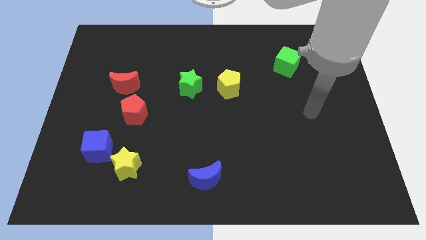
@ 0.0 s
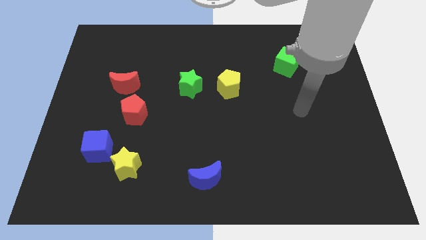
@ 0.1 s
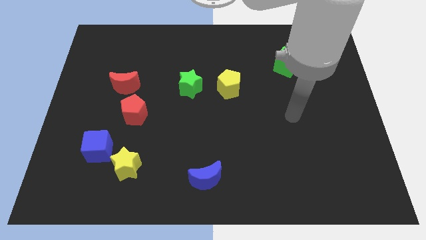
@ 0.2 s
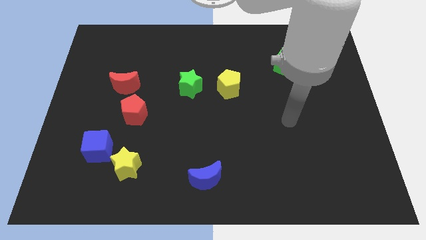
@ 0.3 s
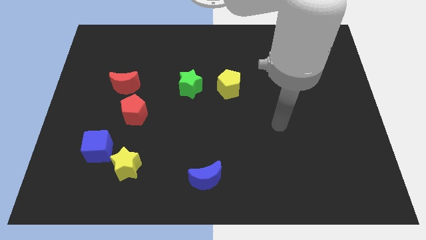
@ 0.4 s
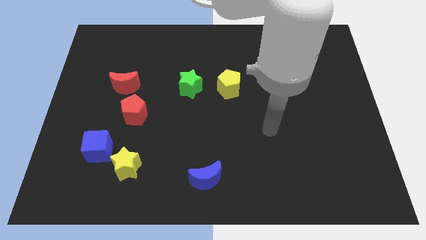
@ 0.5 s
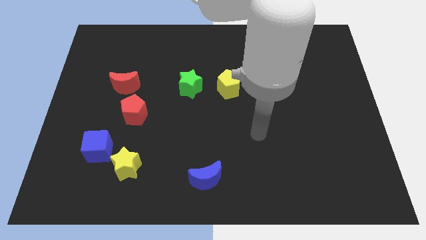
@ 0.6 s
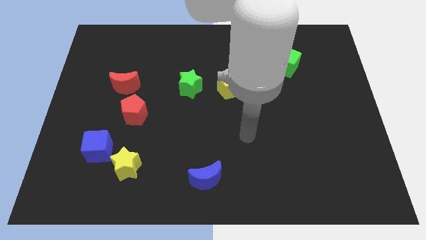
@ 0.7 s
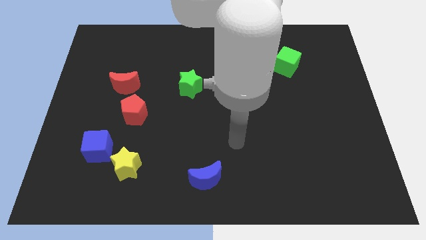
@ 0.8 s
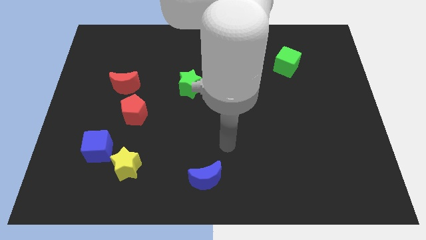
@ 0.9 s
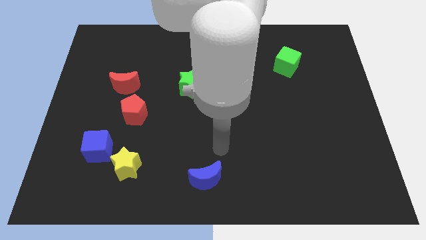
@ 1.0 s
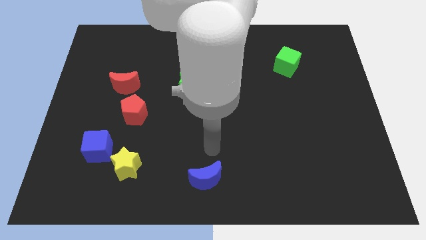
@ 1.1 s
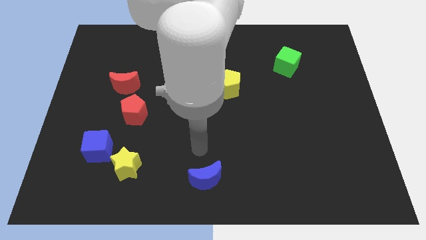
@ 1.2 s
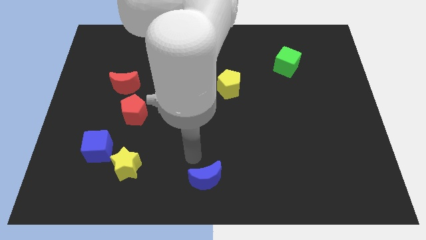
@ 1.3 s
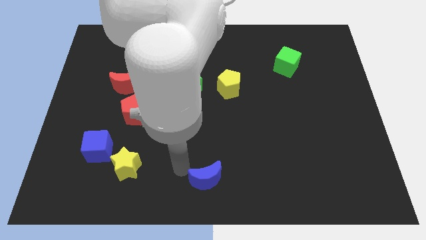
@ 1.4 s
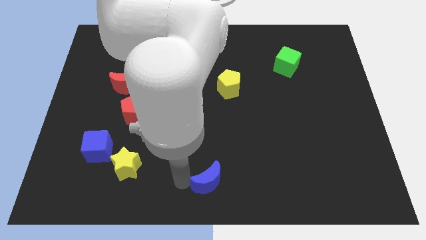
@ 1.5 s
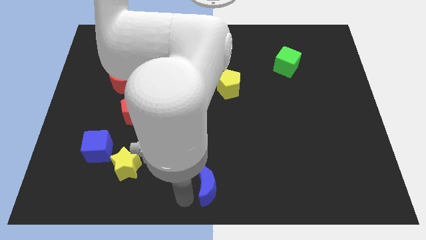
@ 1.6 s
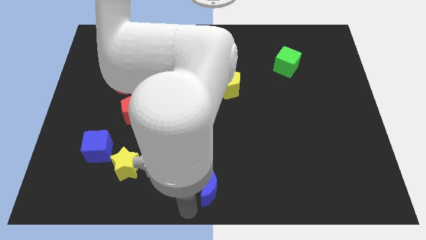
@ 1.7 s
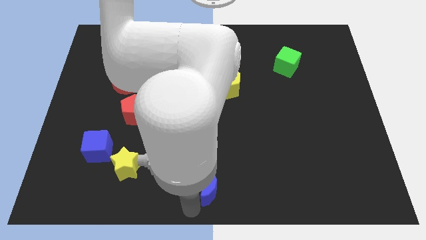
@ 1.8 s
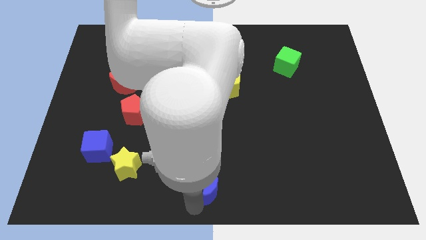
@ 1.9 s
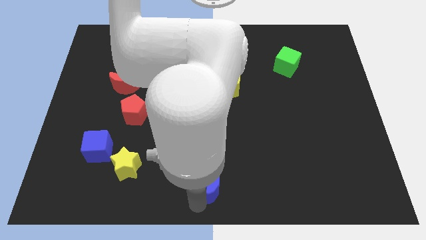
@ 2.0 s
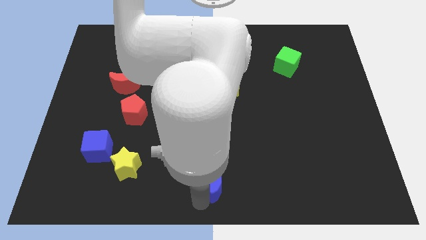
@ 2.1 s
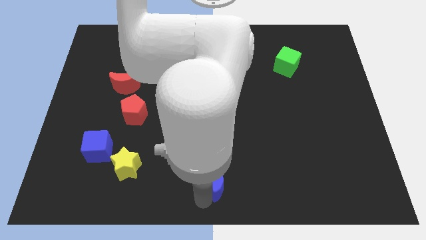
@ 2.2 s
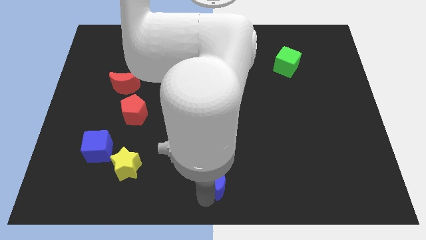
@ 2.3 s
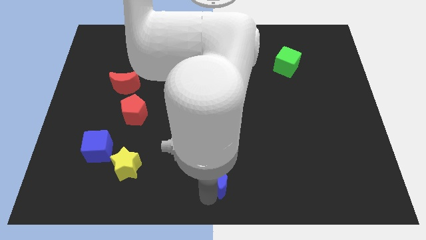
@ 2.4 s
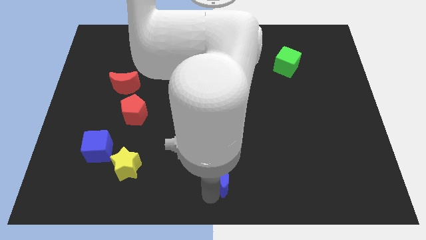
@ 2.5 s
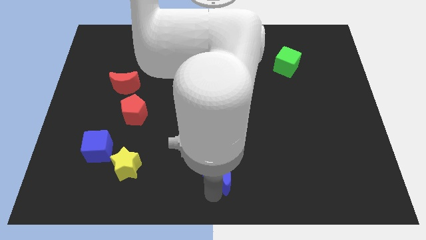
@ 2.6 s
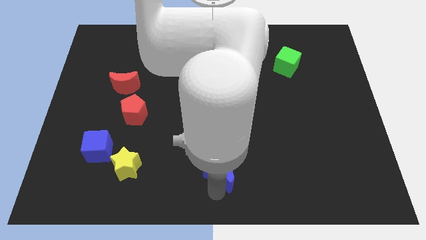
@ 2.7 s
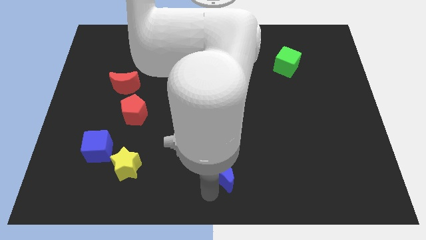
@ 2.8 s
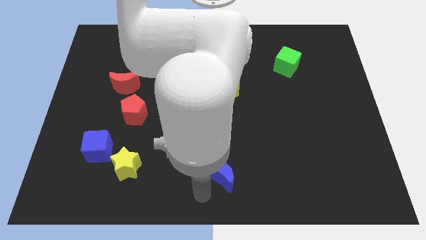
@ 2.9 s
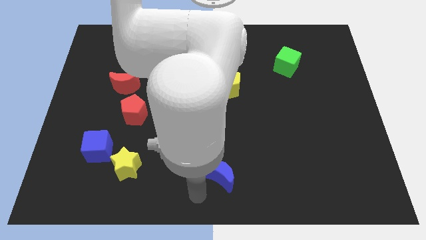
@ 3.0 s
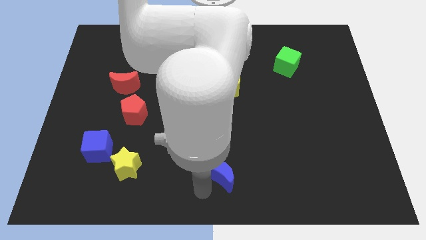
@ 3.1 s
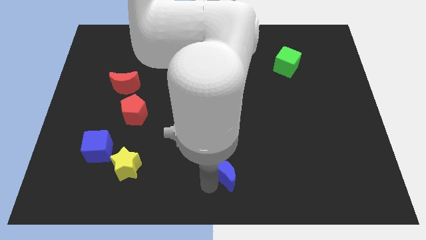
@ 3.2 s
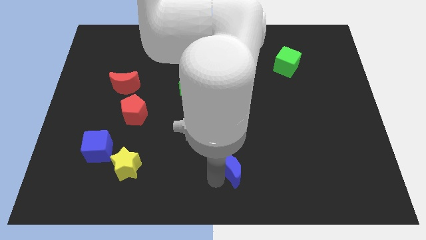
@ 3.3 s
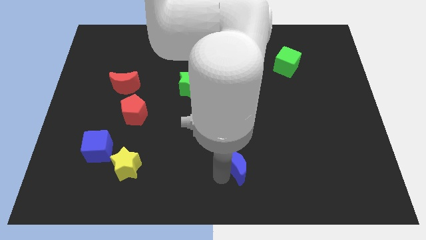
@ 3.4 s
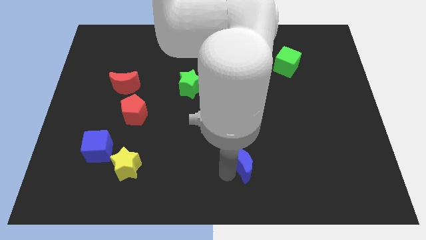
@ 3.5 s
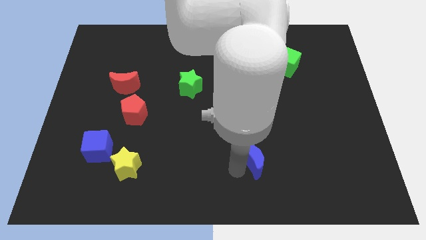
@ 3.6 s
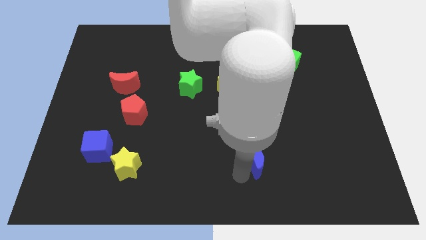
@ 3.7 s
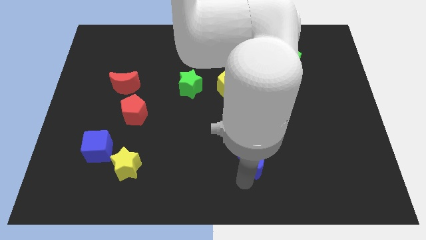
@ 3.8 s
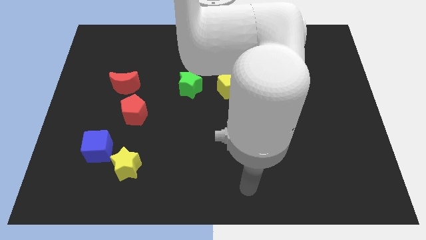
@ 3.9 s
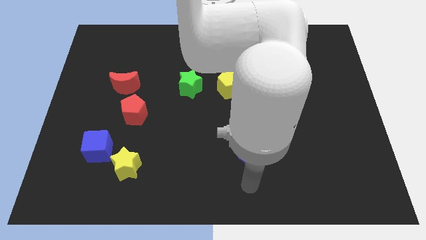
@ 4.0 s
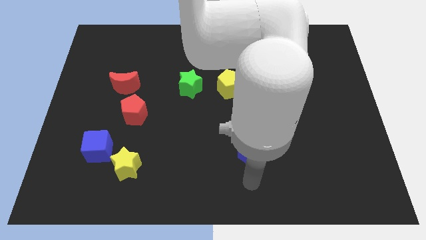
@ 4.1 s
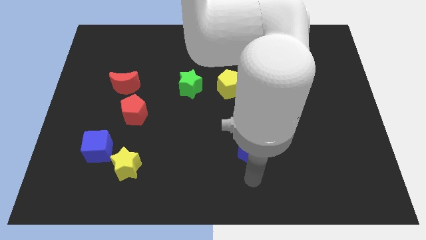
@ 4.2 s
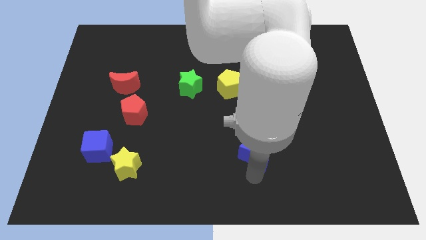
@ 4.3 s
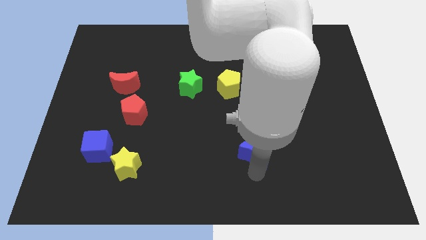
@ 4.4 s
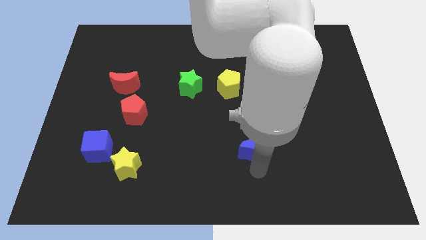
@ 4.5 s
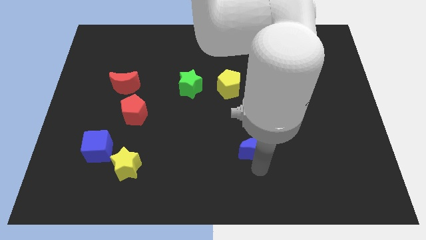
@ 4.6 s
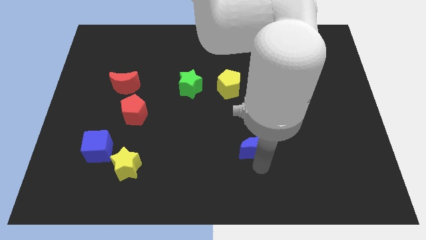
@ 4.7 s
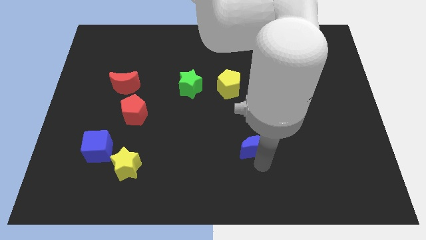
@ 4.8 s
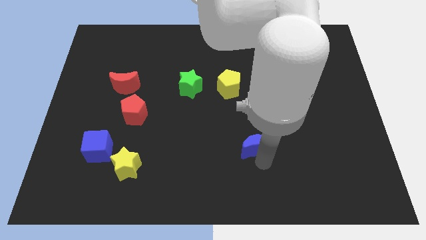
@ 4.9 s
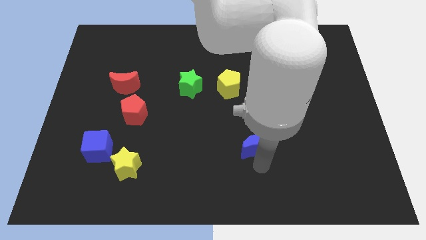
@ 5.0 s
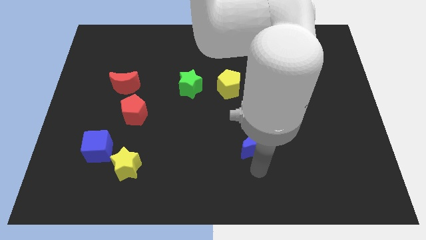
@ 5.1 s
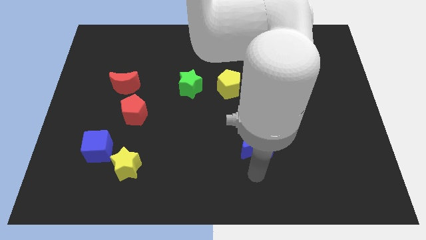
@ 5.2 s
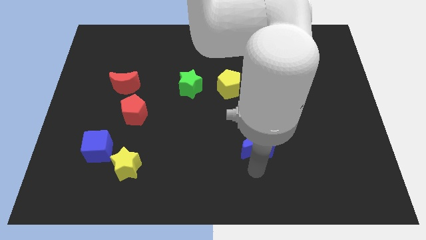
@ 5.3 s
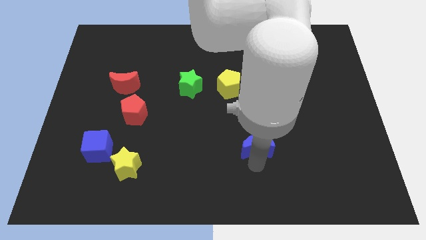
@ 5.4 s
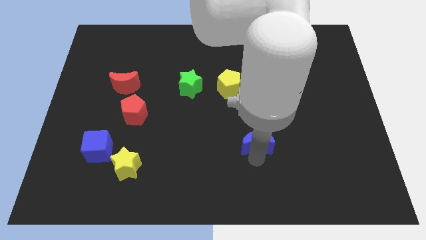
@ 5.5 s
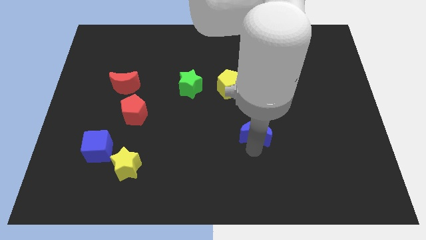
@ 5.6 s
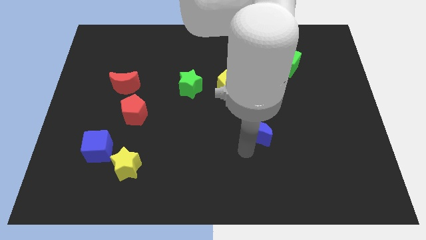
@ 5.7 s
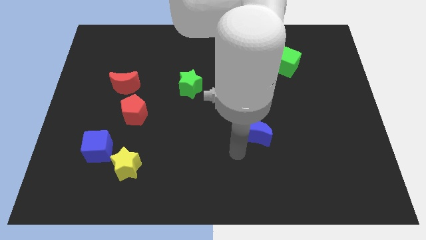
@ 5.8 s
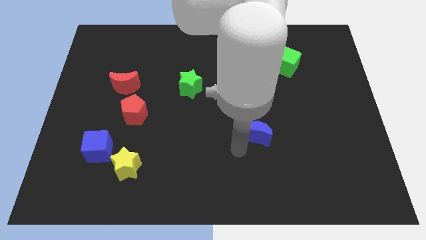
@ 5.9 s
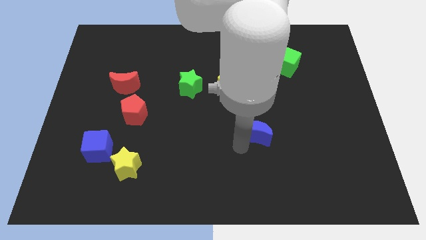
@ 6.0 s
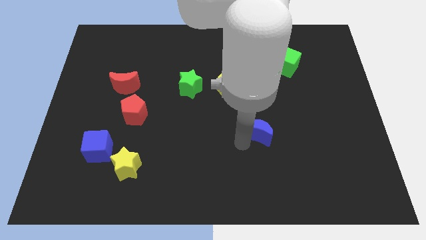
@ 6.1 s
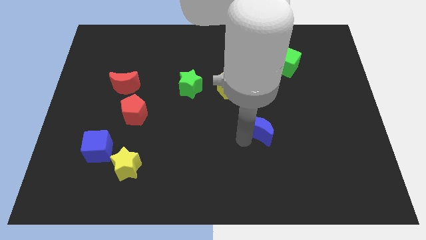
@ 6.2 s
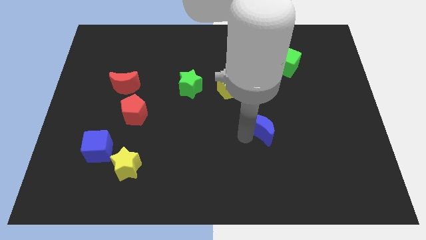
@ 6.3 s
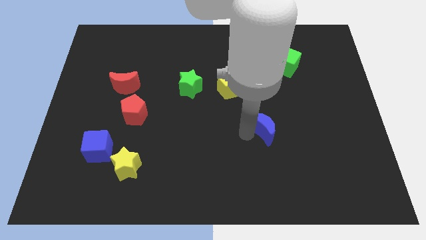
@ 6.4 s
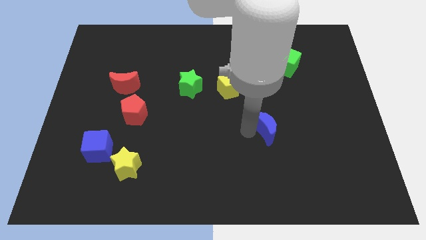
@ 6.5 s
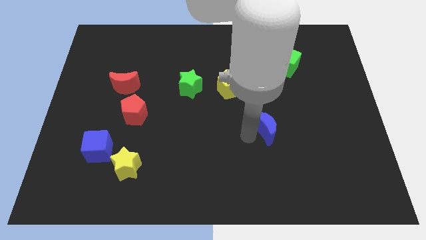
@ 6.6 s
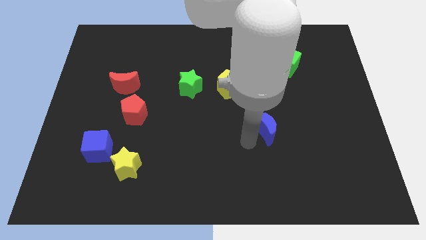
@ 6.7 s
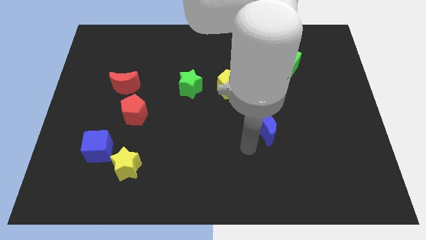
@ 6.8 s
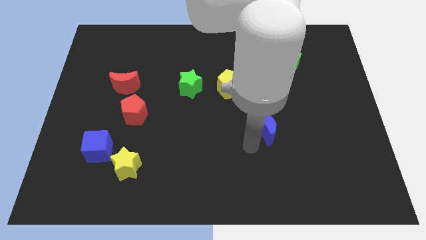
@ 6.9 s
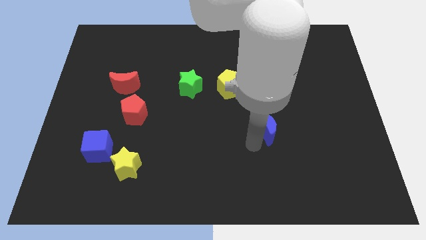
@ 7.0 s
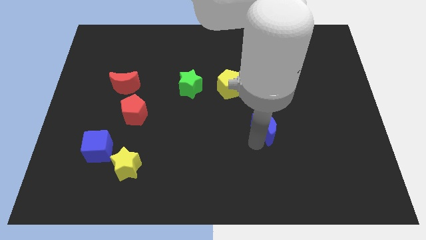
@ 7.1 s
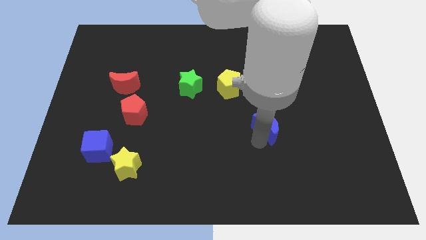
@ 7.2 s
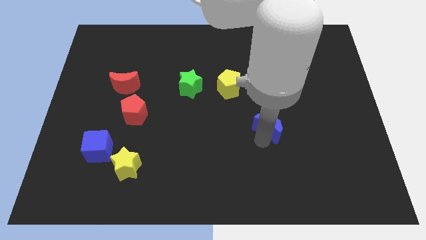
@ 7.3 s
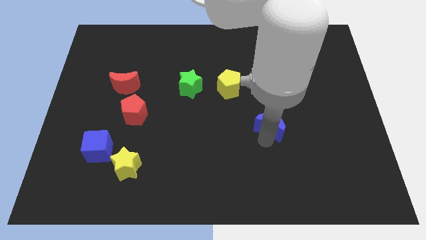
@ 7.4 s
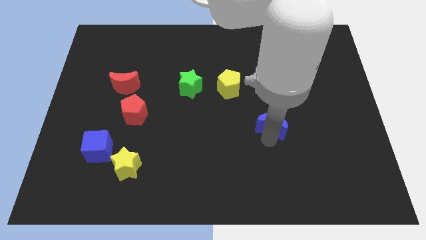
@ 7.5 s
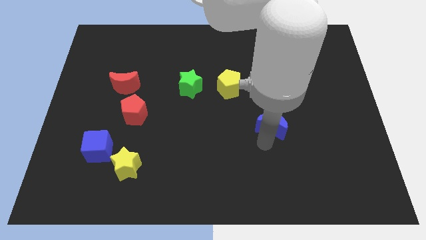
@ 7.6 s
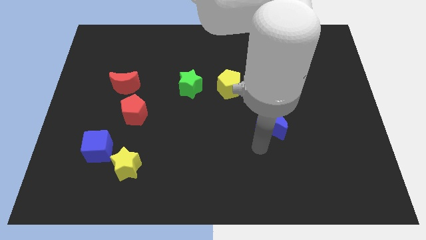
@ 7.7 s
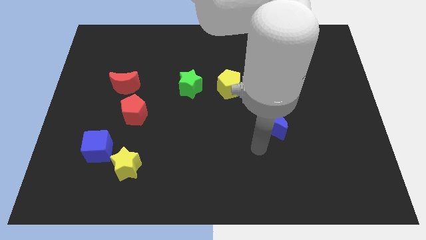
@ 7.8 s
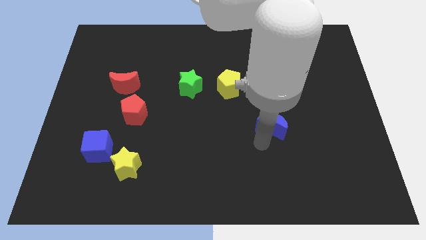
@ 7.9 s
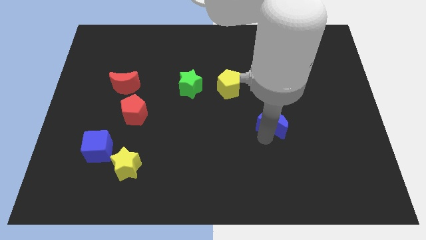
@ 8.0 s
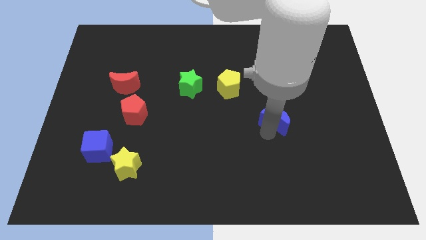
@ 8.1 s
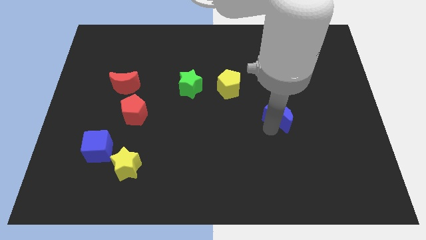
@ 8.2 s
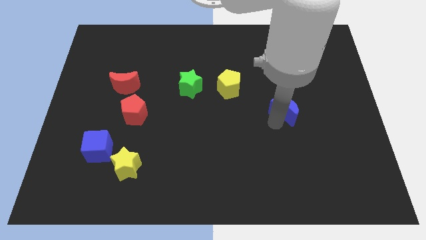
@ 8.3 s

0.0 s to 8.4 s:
slide the blue moon to the bottom side of the green cube
